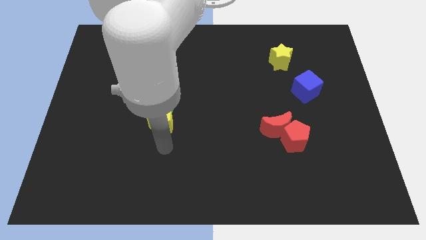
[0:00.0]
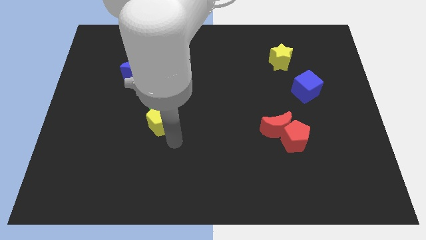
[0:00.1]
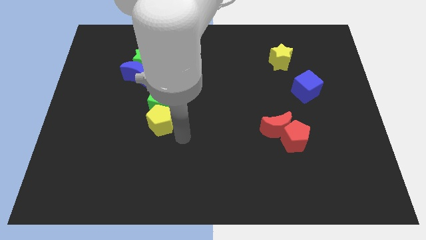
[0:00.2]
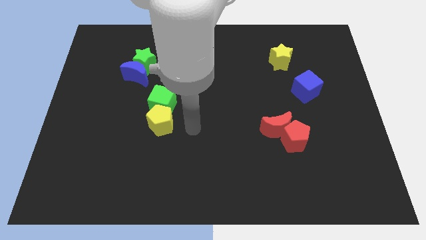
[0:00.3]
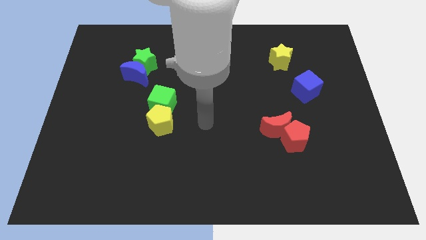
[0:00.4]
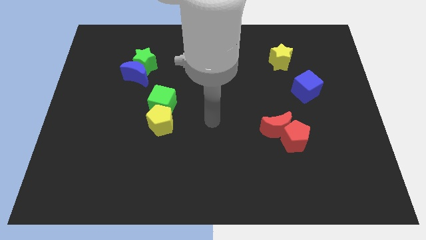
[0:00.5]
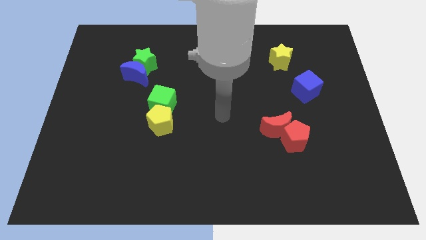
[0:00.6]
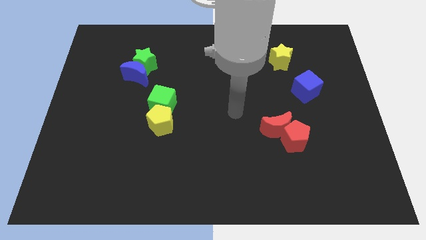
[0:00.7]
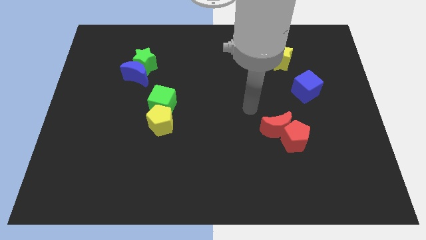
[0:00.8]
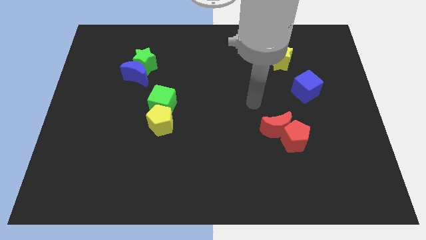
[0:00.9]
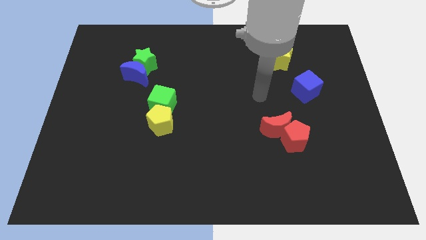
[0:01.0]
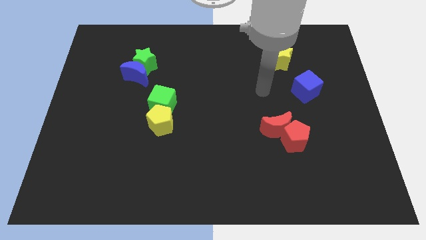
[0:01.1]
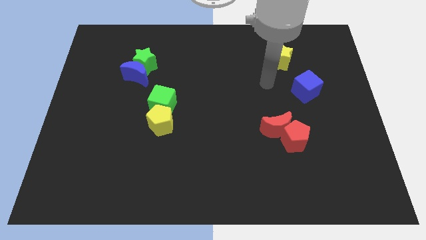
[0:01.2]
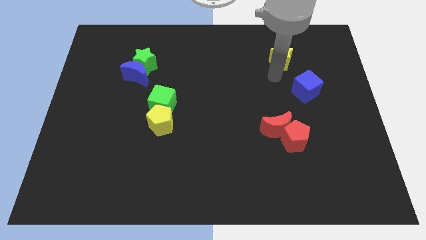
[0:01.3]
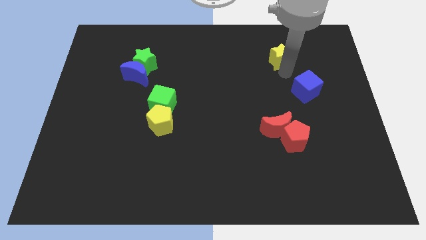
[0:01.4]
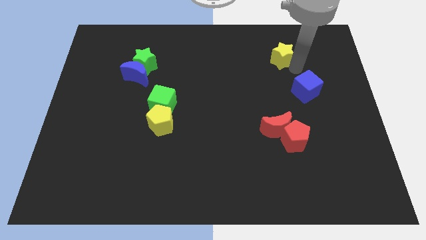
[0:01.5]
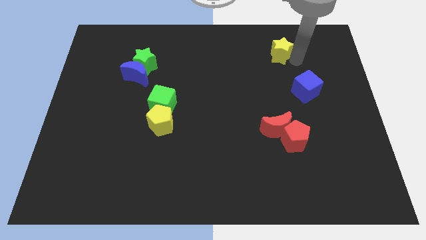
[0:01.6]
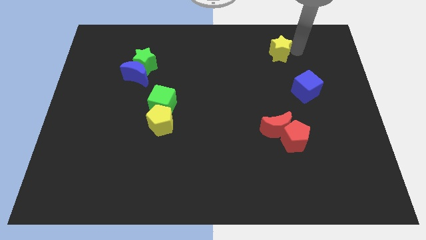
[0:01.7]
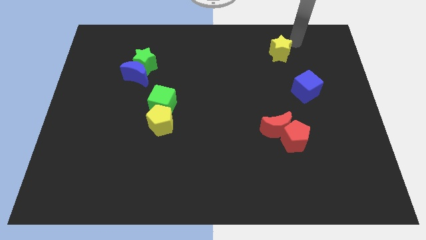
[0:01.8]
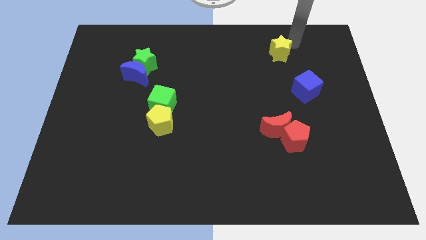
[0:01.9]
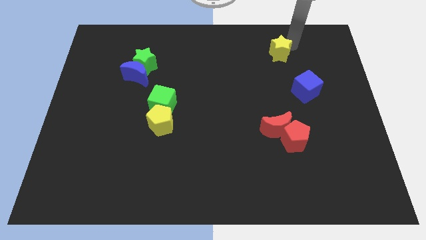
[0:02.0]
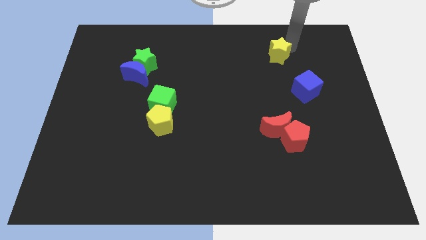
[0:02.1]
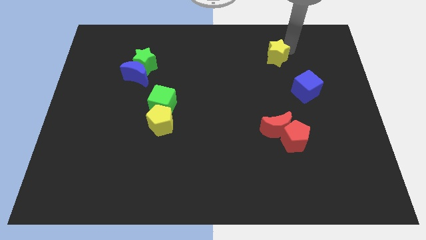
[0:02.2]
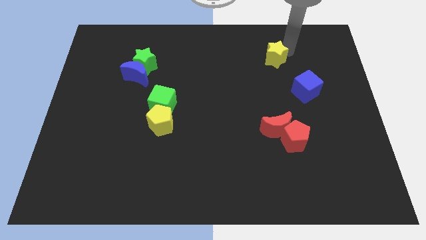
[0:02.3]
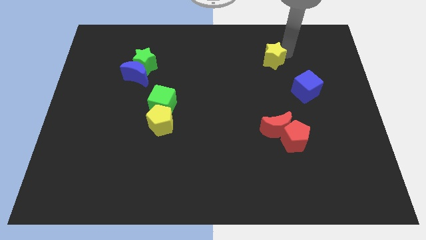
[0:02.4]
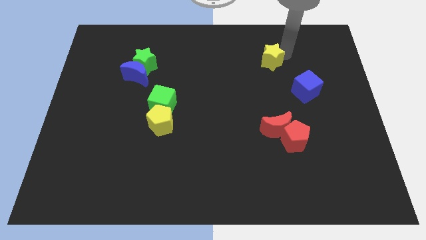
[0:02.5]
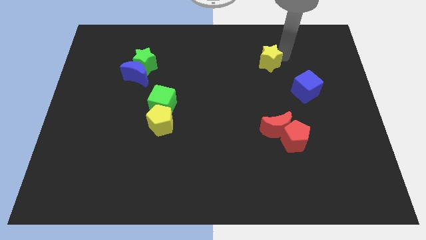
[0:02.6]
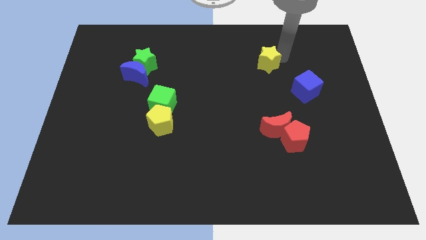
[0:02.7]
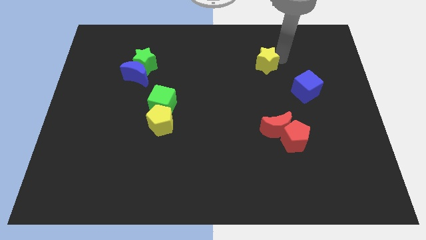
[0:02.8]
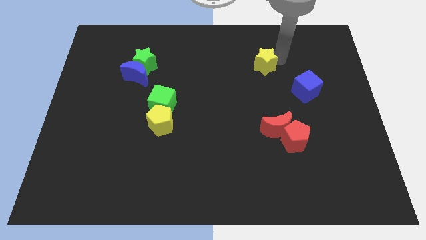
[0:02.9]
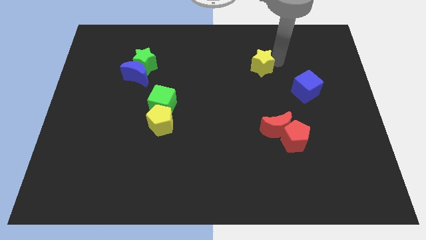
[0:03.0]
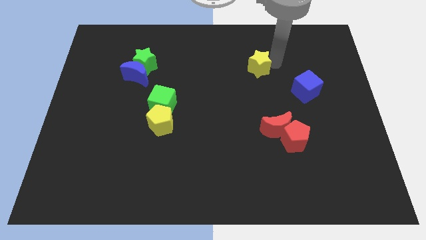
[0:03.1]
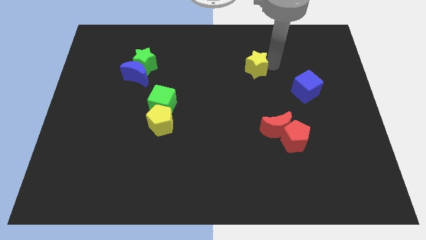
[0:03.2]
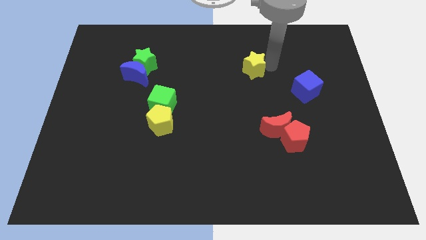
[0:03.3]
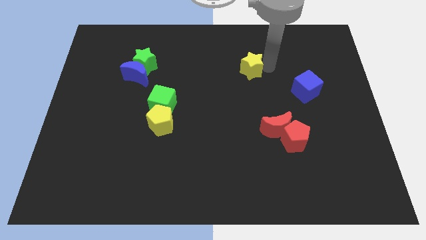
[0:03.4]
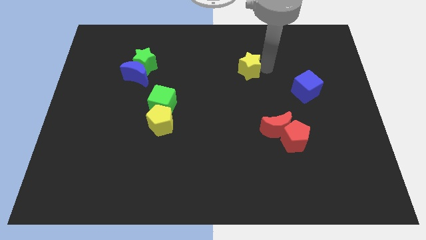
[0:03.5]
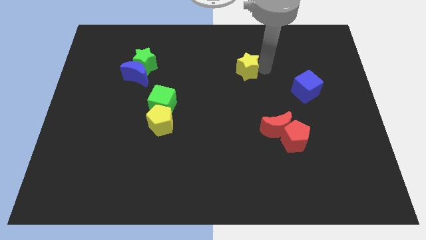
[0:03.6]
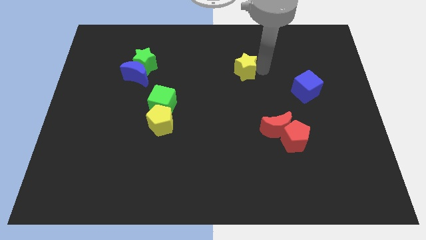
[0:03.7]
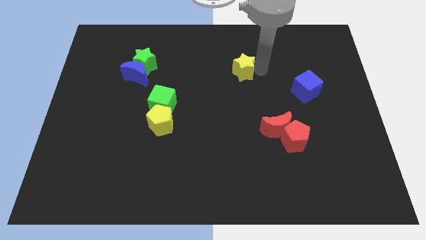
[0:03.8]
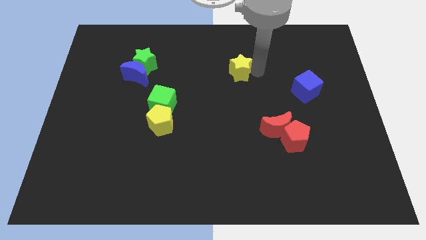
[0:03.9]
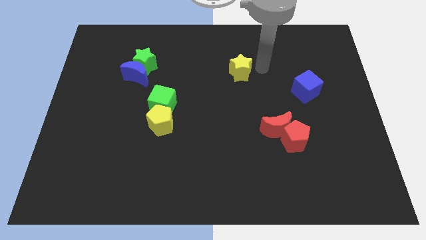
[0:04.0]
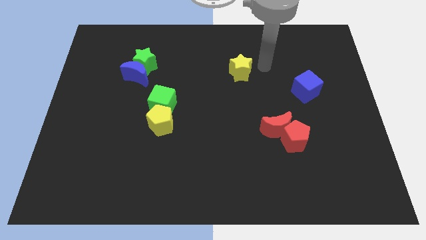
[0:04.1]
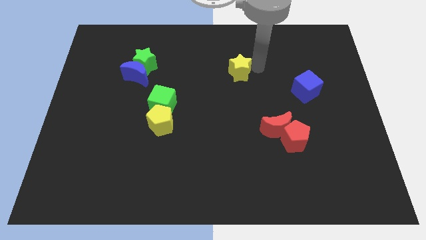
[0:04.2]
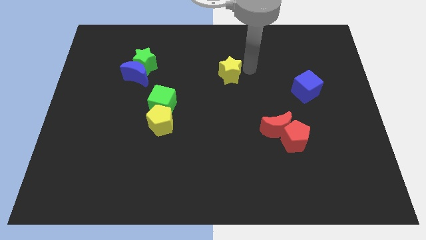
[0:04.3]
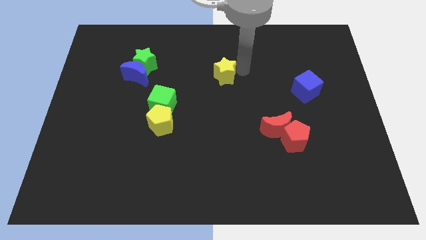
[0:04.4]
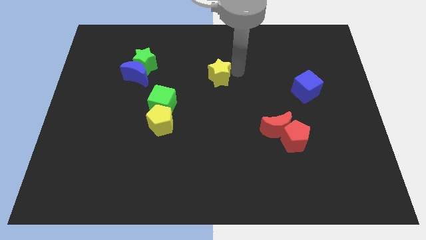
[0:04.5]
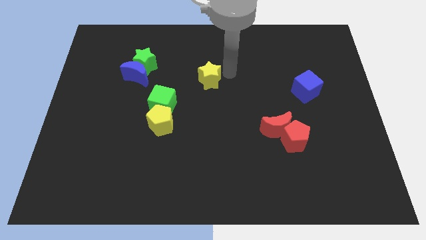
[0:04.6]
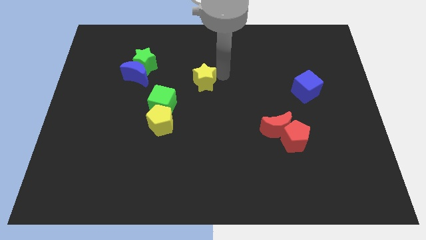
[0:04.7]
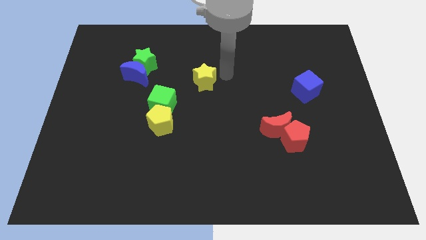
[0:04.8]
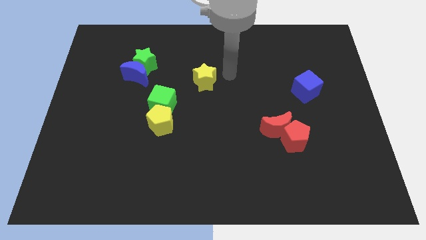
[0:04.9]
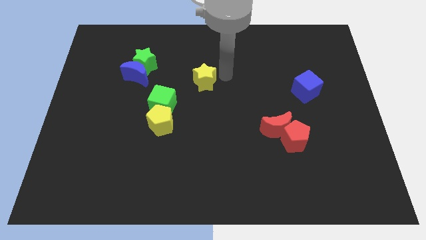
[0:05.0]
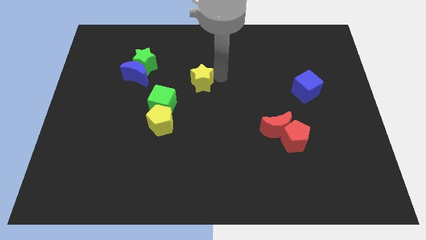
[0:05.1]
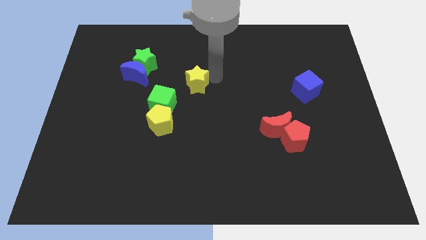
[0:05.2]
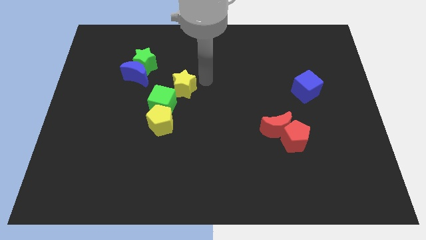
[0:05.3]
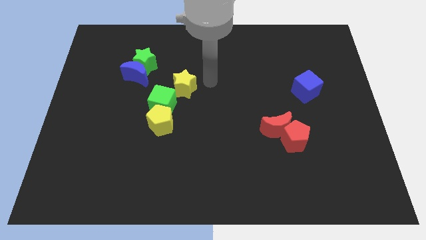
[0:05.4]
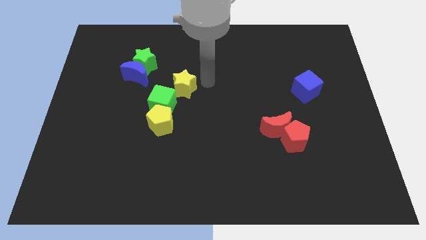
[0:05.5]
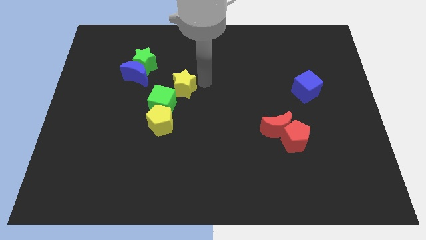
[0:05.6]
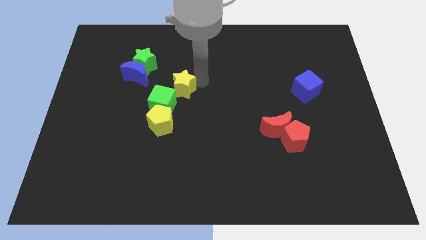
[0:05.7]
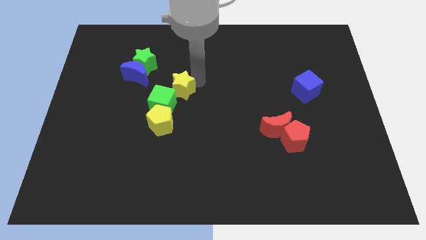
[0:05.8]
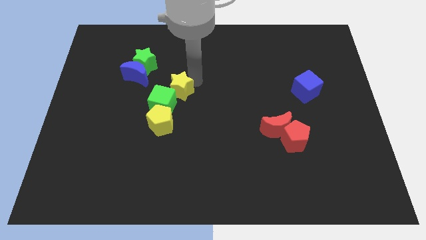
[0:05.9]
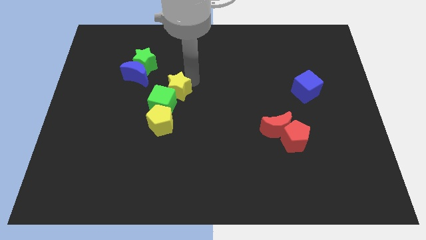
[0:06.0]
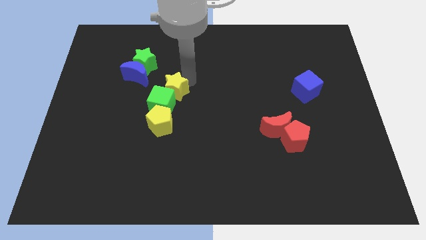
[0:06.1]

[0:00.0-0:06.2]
push the yellow star to the bottom right side of the blue moon
